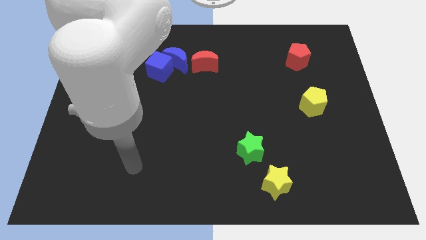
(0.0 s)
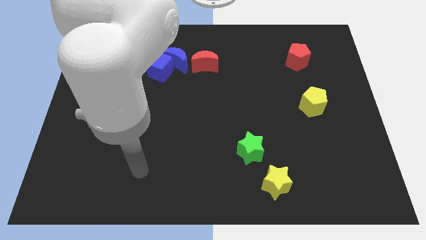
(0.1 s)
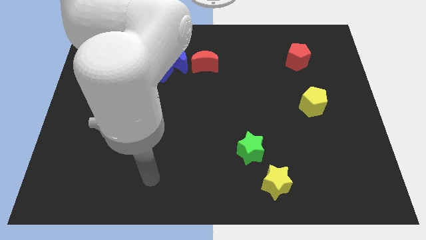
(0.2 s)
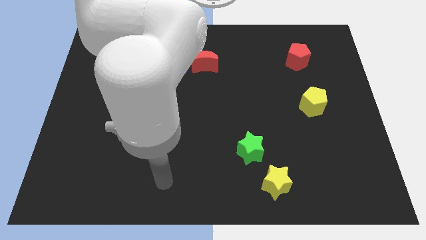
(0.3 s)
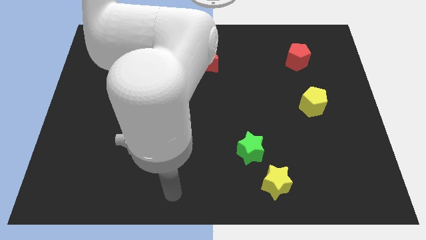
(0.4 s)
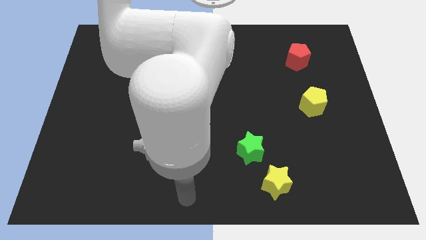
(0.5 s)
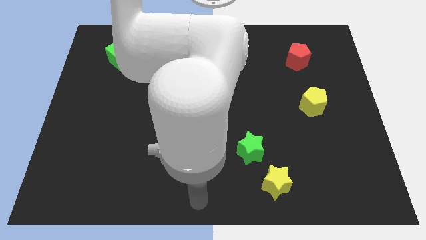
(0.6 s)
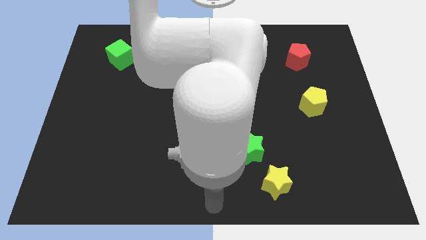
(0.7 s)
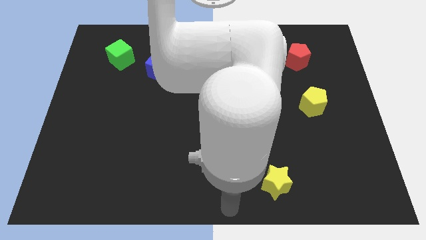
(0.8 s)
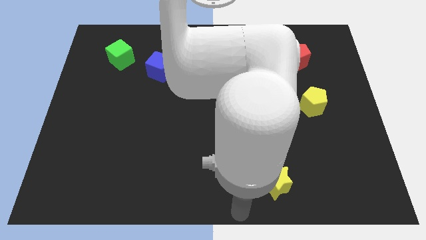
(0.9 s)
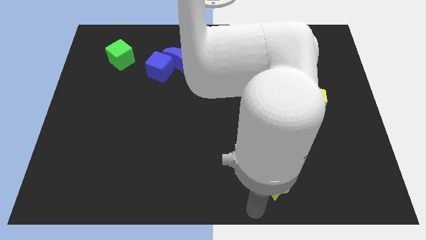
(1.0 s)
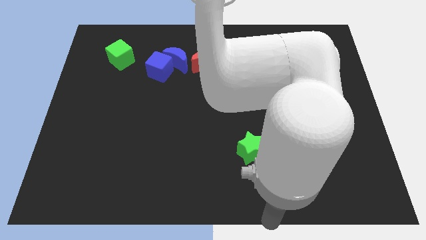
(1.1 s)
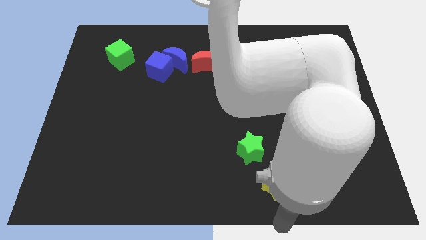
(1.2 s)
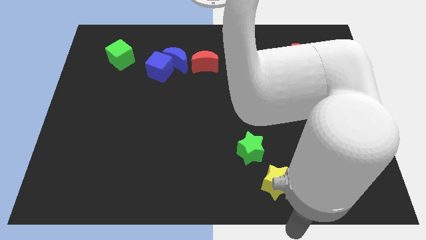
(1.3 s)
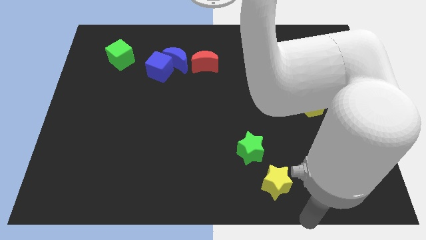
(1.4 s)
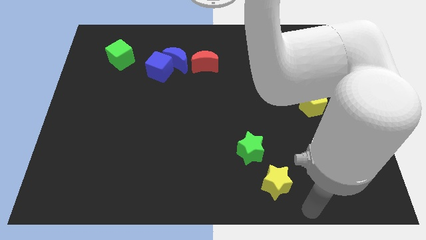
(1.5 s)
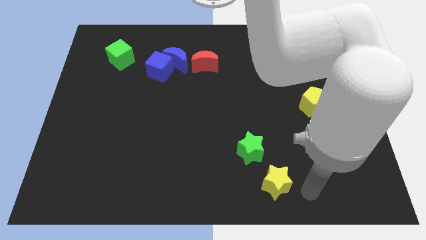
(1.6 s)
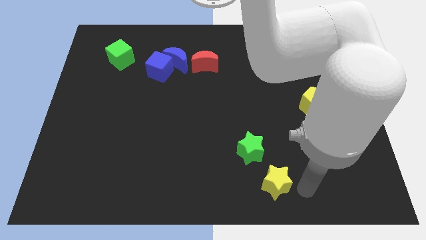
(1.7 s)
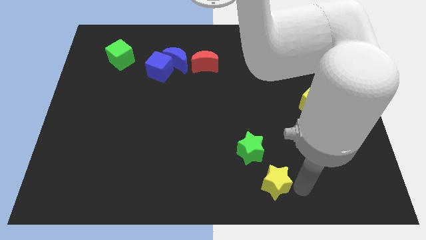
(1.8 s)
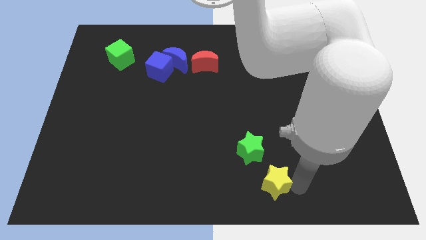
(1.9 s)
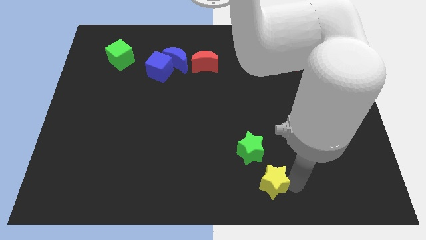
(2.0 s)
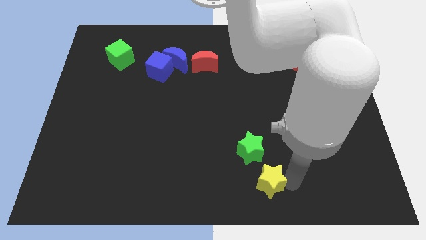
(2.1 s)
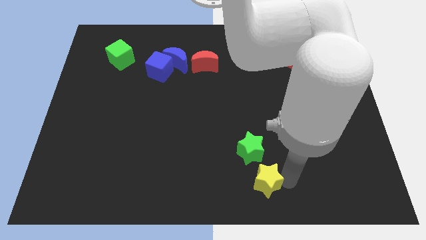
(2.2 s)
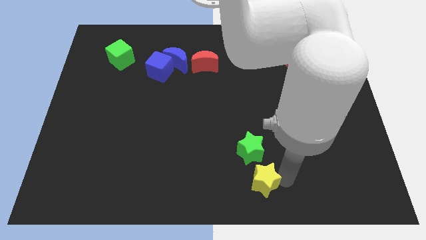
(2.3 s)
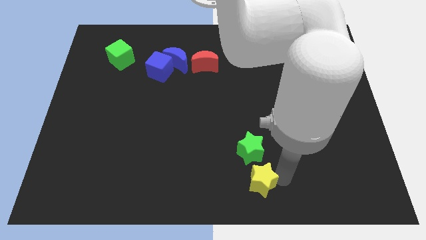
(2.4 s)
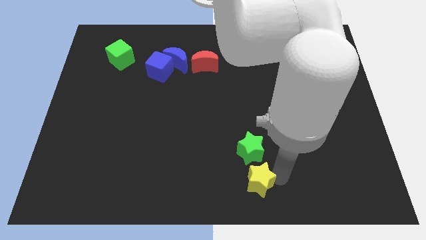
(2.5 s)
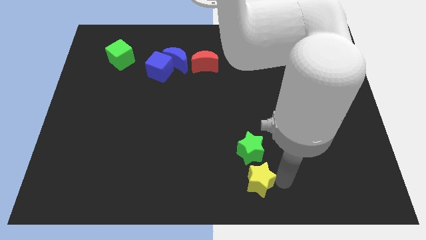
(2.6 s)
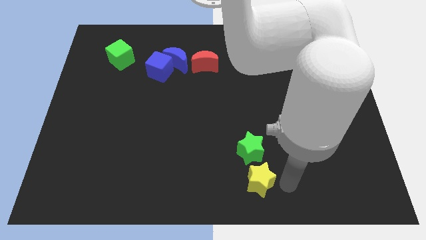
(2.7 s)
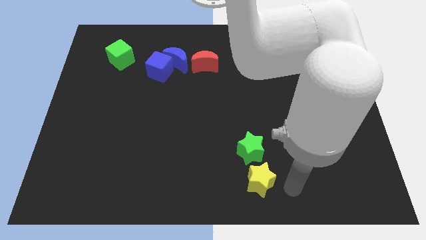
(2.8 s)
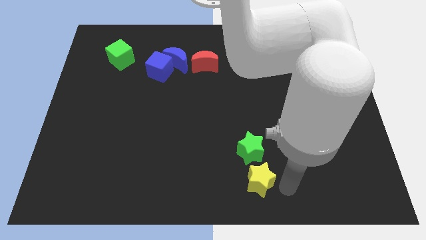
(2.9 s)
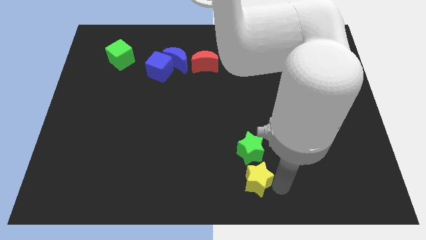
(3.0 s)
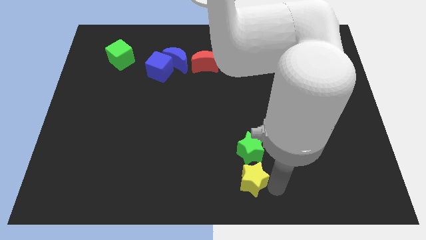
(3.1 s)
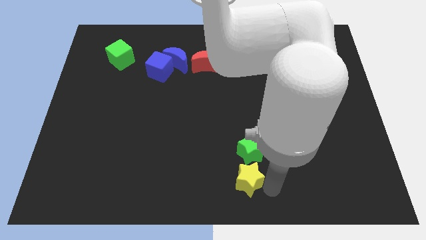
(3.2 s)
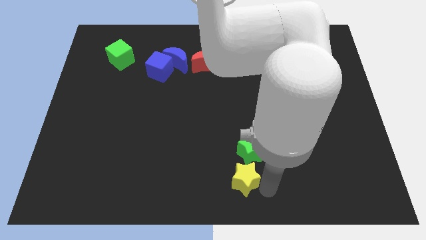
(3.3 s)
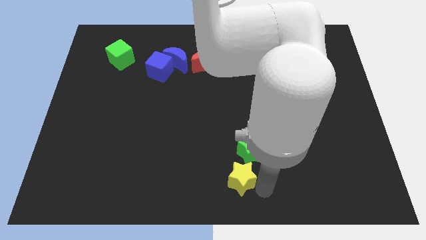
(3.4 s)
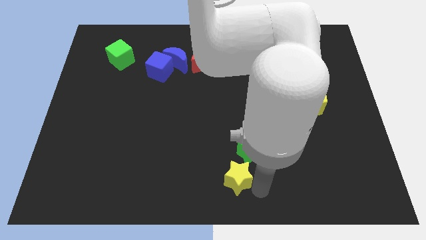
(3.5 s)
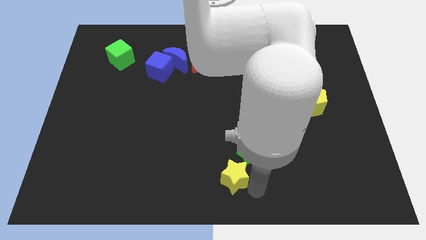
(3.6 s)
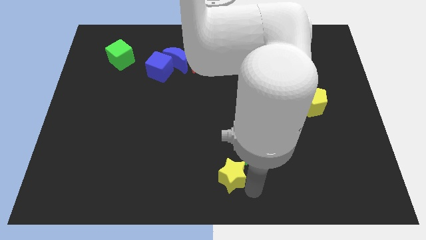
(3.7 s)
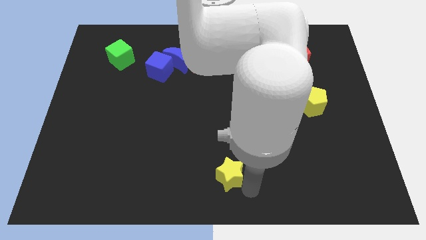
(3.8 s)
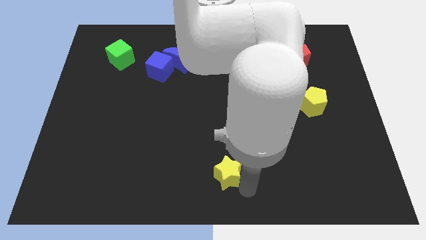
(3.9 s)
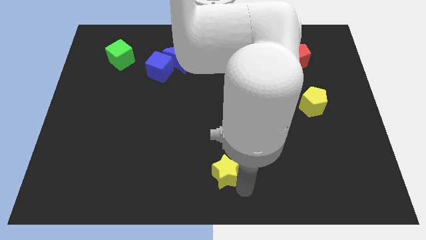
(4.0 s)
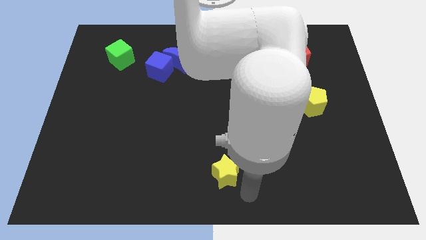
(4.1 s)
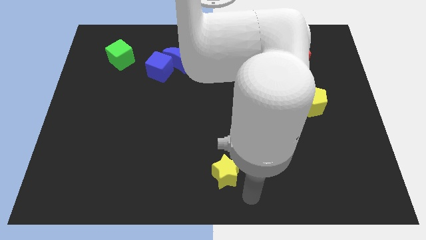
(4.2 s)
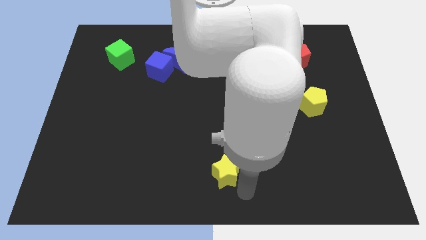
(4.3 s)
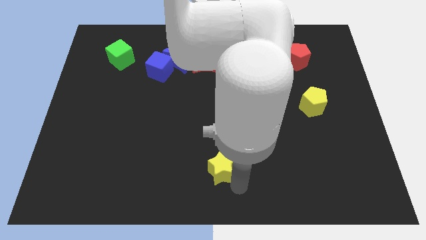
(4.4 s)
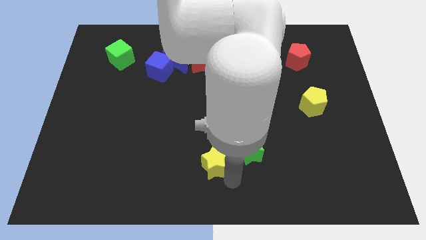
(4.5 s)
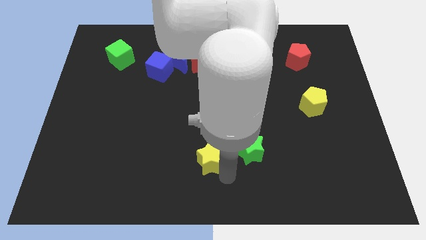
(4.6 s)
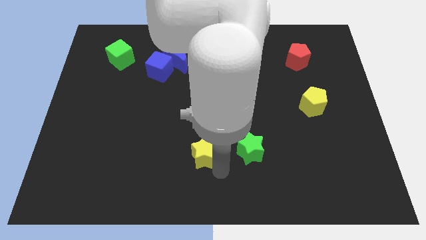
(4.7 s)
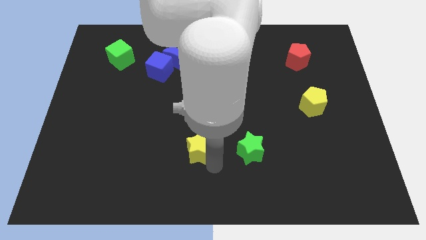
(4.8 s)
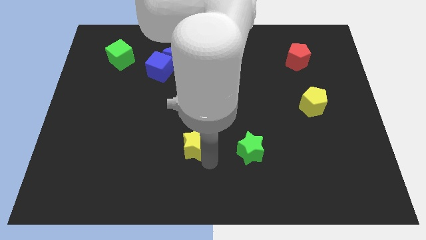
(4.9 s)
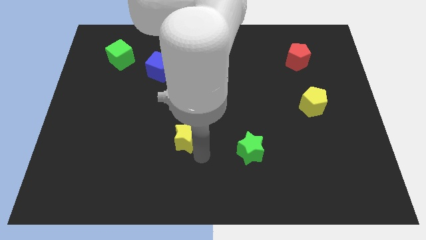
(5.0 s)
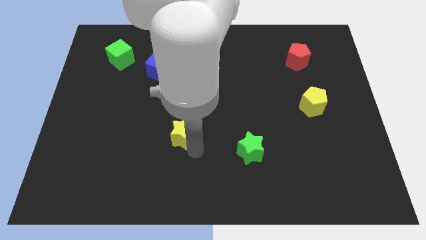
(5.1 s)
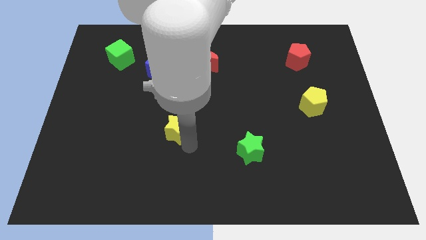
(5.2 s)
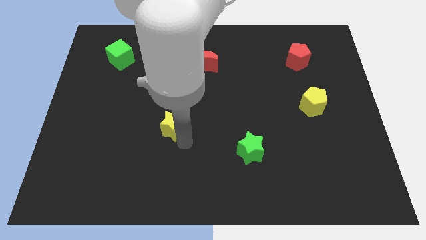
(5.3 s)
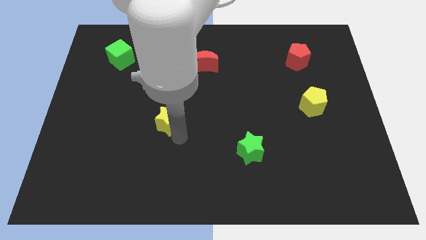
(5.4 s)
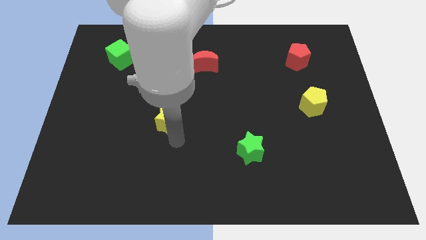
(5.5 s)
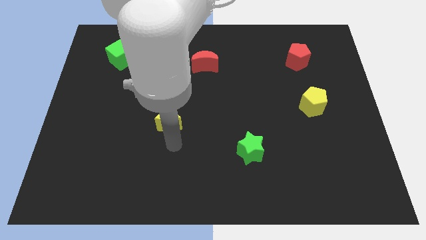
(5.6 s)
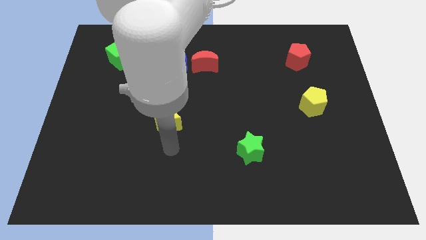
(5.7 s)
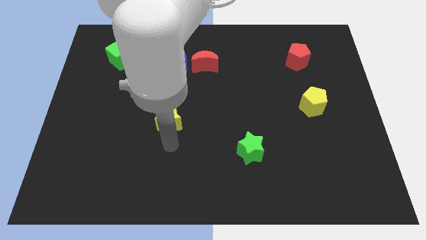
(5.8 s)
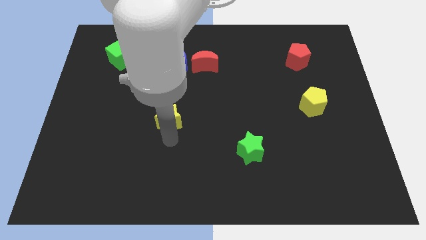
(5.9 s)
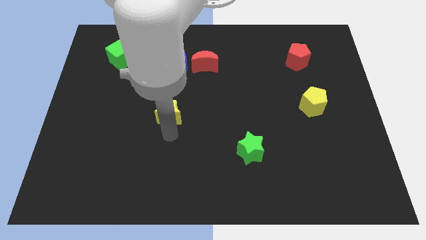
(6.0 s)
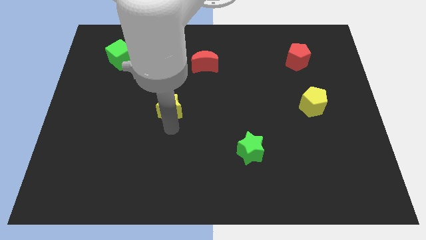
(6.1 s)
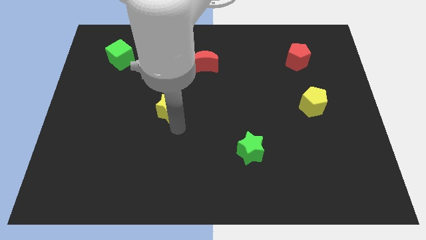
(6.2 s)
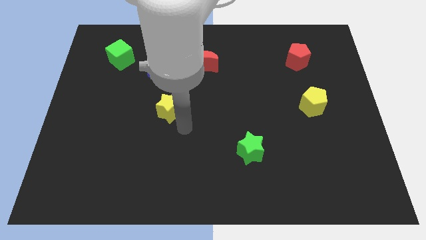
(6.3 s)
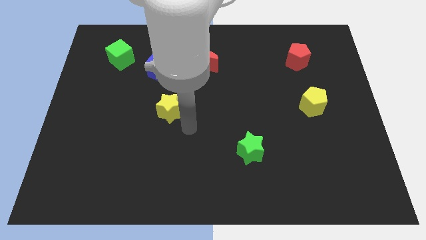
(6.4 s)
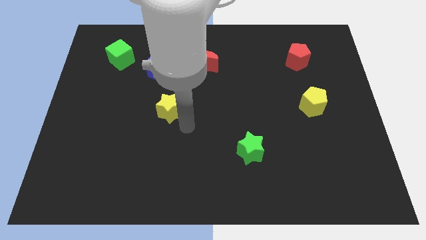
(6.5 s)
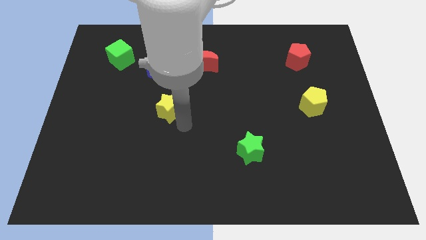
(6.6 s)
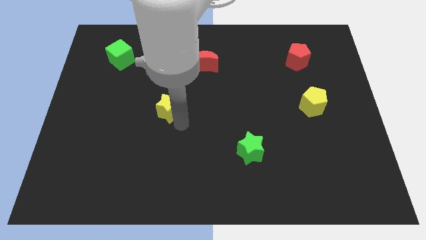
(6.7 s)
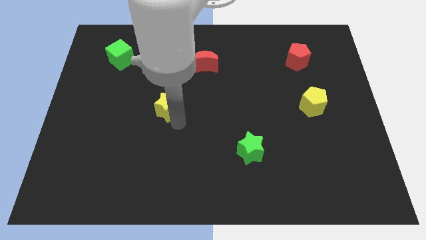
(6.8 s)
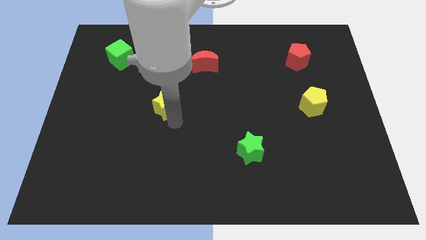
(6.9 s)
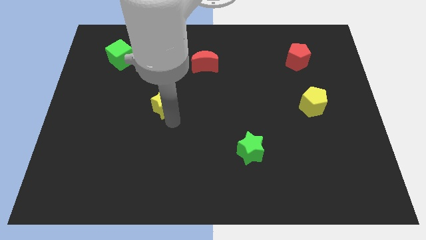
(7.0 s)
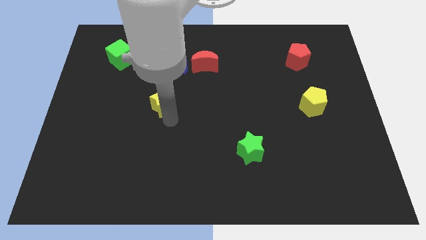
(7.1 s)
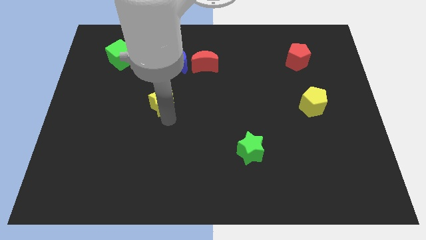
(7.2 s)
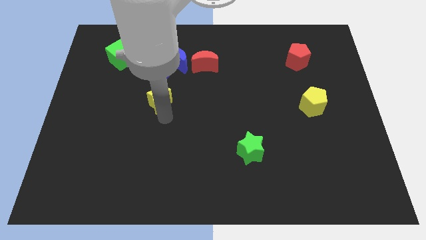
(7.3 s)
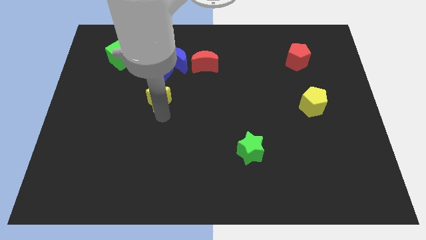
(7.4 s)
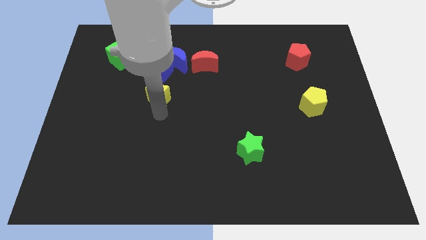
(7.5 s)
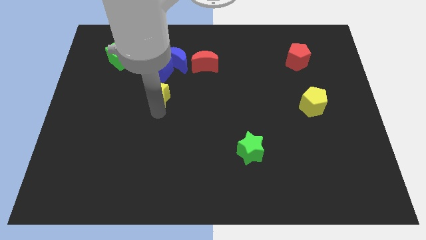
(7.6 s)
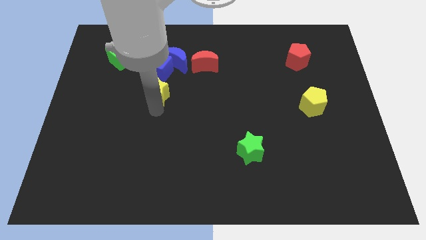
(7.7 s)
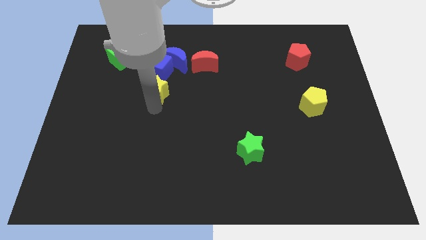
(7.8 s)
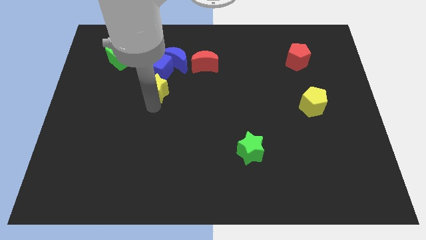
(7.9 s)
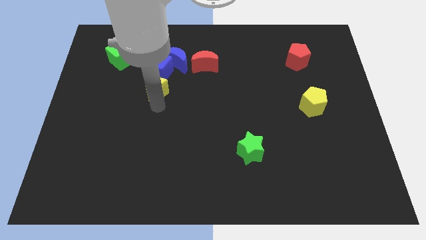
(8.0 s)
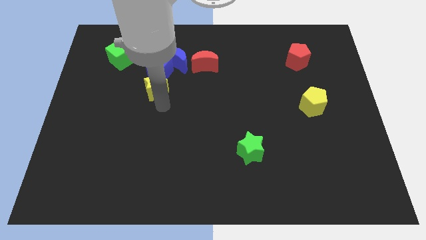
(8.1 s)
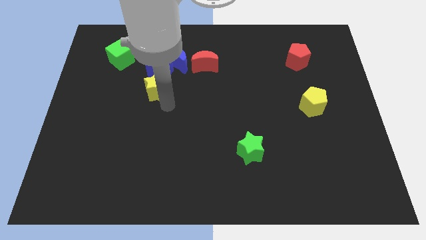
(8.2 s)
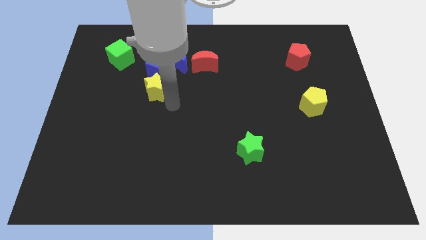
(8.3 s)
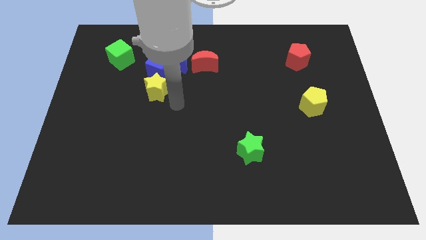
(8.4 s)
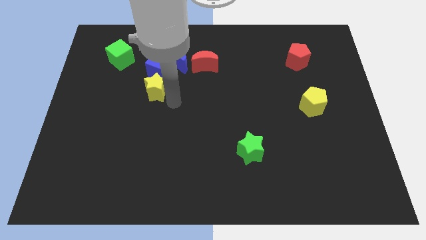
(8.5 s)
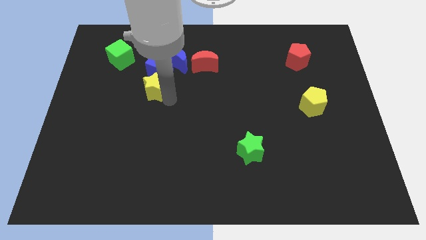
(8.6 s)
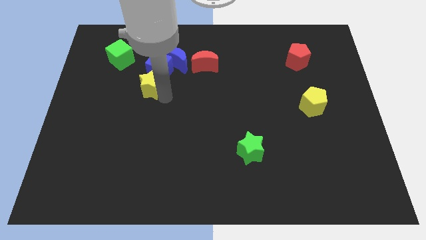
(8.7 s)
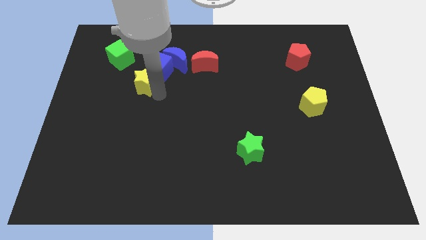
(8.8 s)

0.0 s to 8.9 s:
slide the yellow star diagonally down and to the right of the green cube
